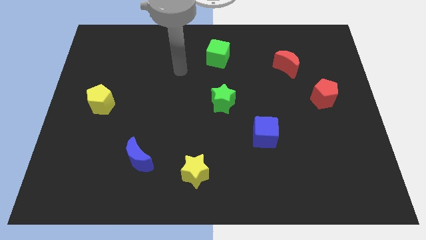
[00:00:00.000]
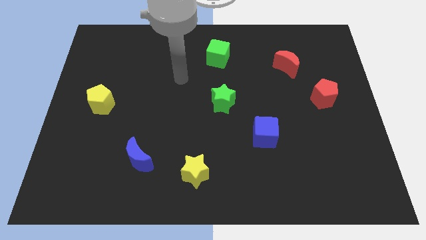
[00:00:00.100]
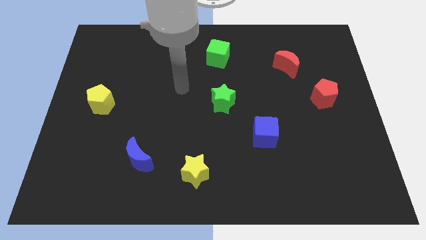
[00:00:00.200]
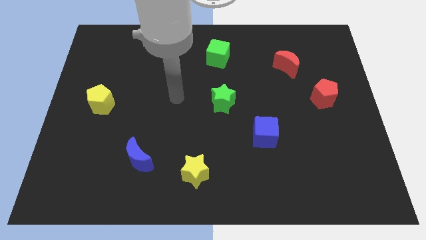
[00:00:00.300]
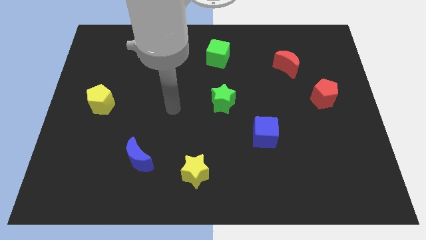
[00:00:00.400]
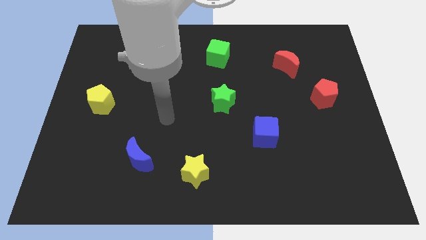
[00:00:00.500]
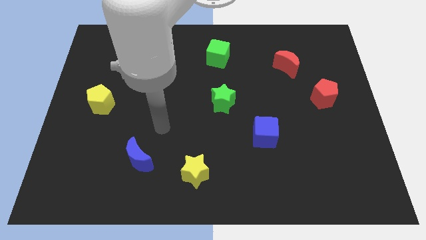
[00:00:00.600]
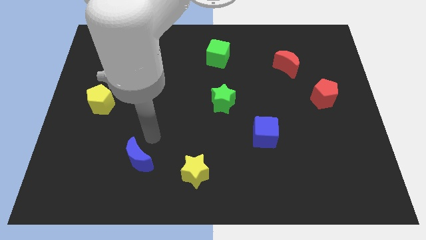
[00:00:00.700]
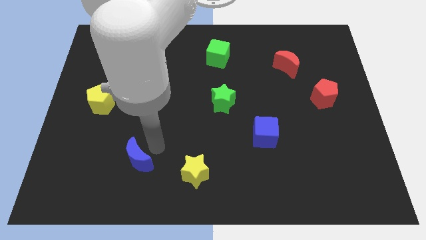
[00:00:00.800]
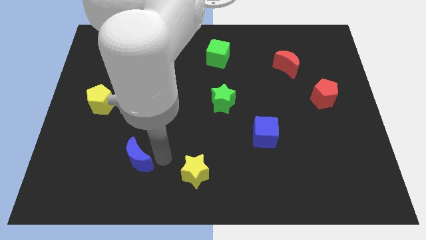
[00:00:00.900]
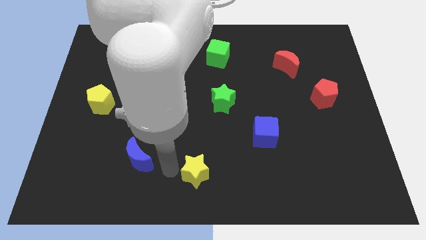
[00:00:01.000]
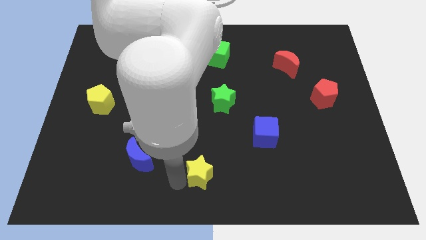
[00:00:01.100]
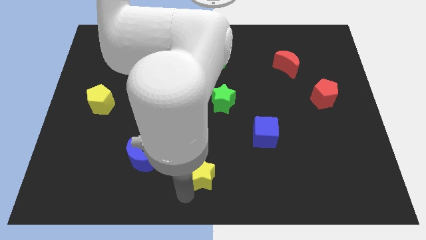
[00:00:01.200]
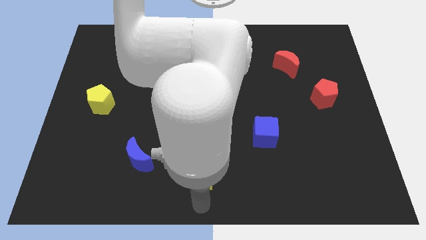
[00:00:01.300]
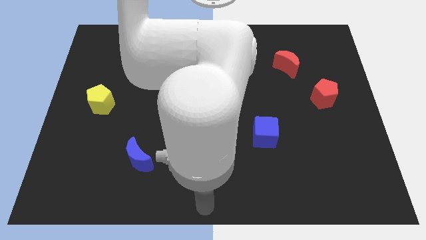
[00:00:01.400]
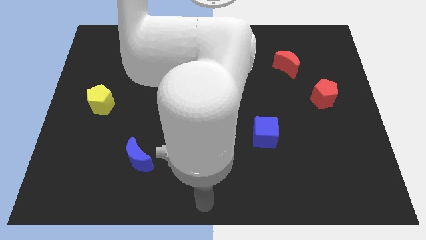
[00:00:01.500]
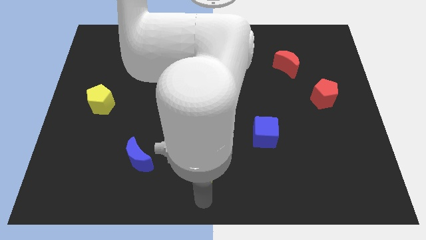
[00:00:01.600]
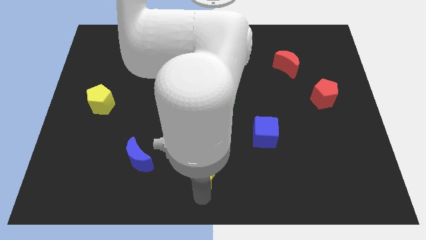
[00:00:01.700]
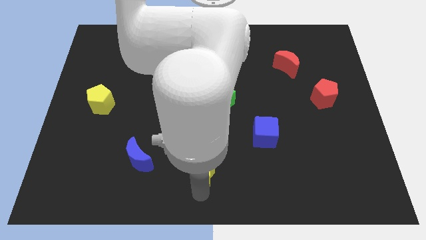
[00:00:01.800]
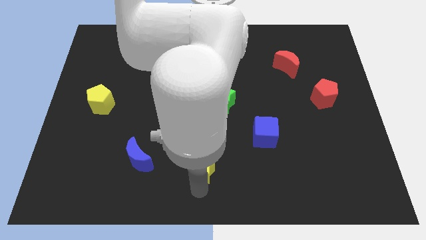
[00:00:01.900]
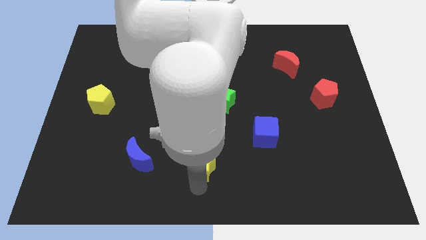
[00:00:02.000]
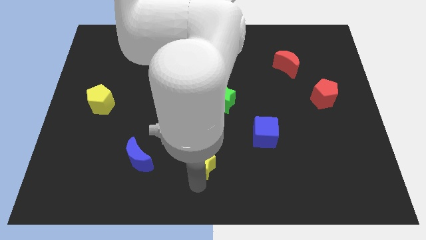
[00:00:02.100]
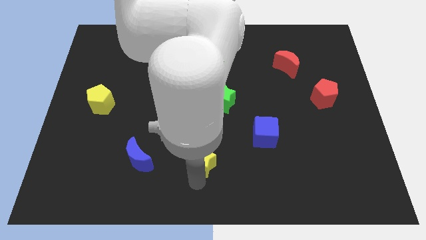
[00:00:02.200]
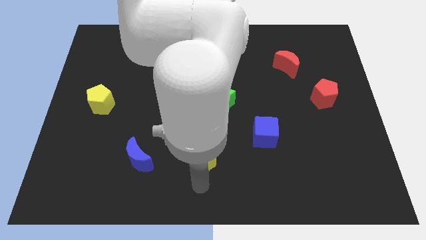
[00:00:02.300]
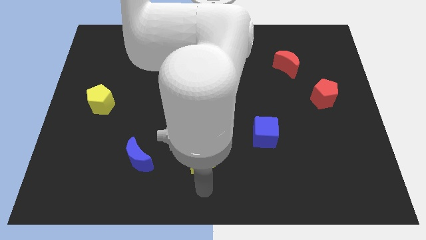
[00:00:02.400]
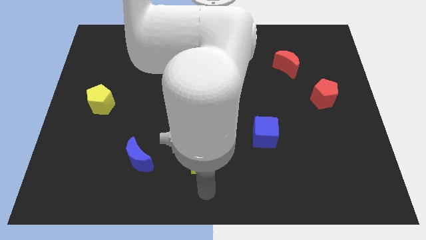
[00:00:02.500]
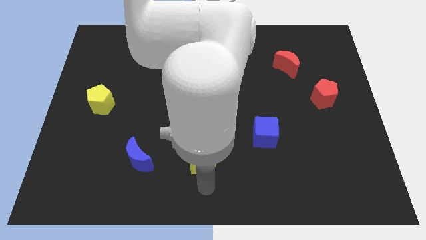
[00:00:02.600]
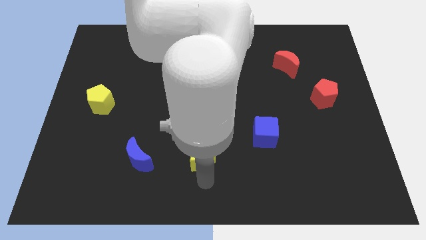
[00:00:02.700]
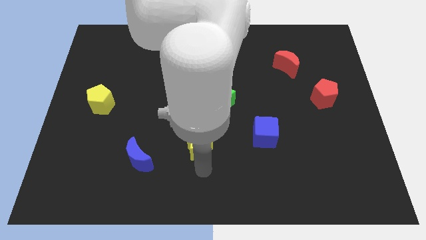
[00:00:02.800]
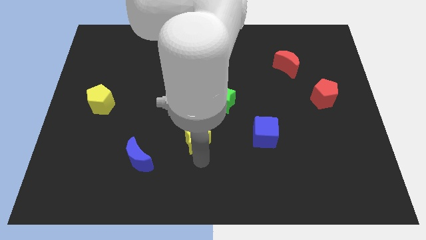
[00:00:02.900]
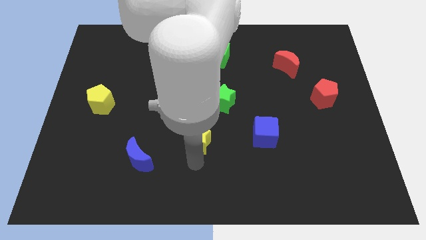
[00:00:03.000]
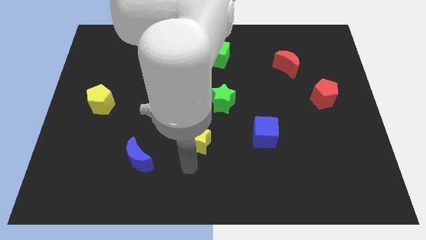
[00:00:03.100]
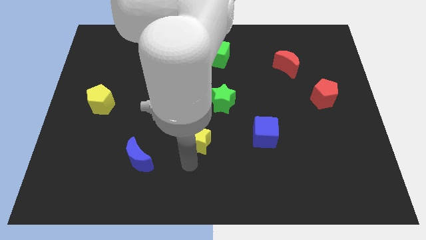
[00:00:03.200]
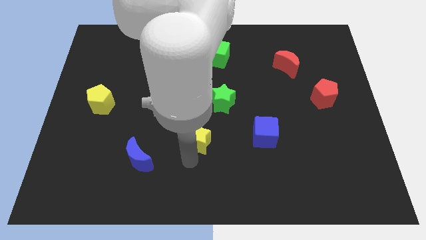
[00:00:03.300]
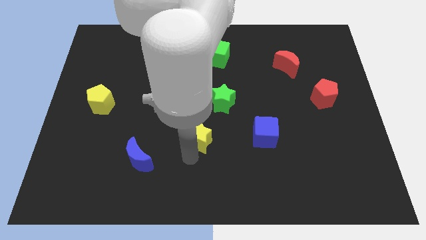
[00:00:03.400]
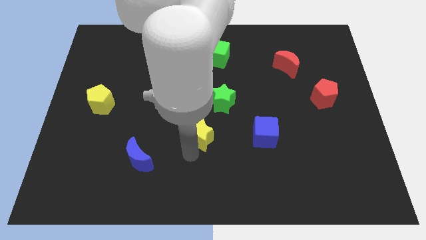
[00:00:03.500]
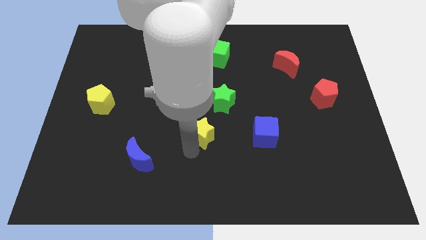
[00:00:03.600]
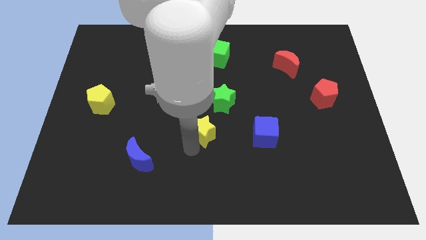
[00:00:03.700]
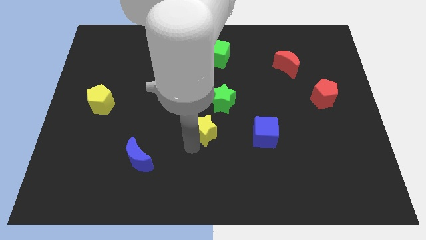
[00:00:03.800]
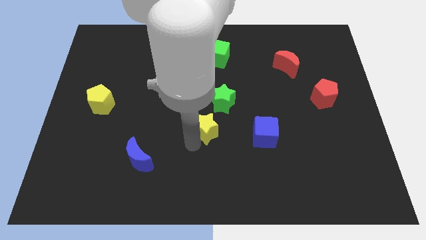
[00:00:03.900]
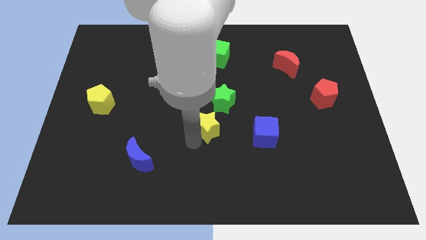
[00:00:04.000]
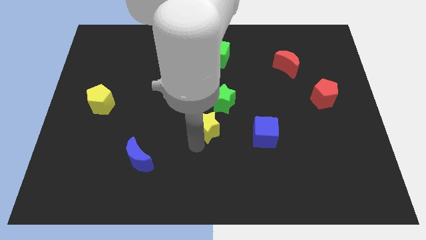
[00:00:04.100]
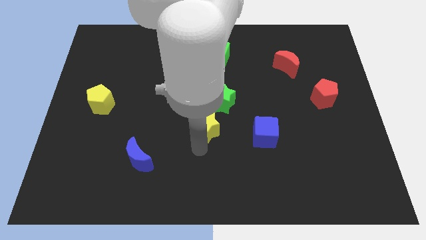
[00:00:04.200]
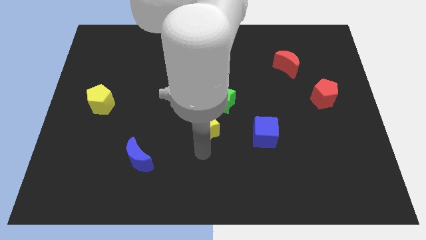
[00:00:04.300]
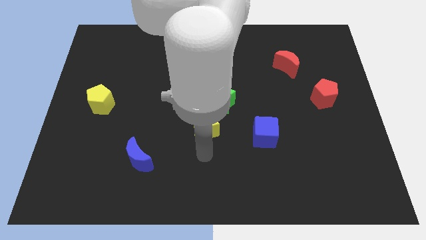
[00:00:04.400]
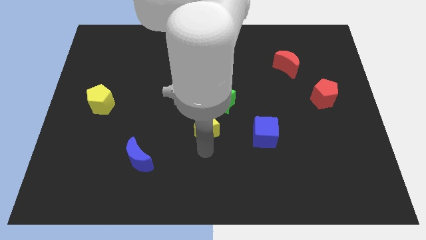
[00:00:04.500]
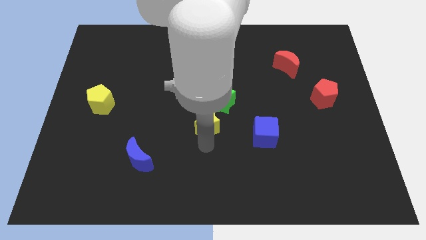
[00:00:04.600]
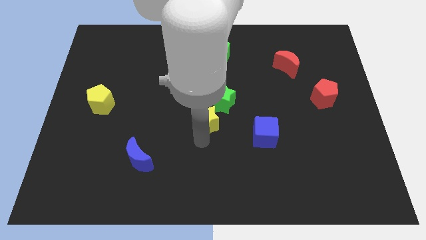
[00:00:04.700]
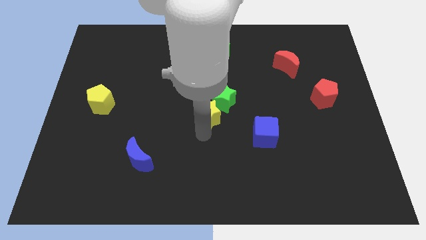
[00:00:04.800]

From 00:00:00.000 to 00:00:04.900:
move the yellow star to the green star

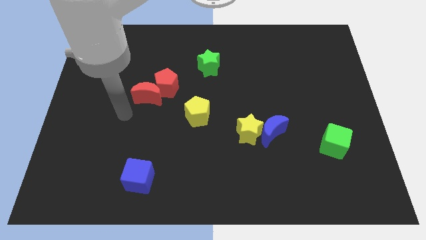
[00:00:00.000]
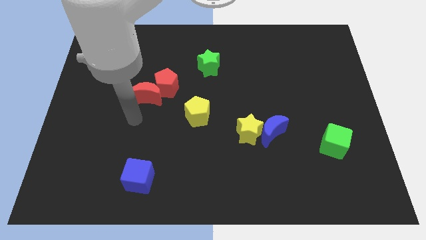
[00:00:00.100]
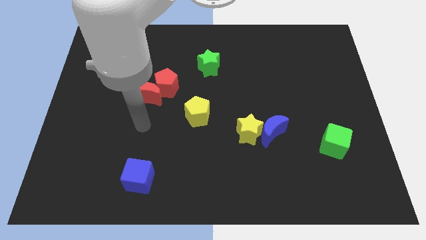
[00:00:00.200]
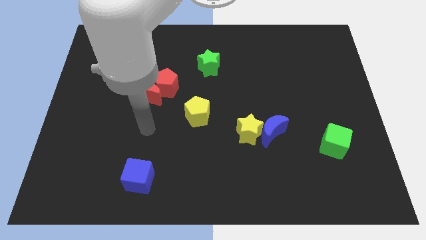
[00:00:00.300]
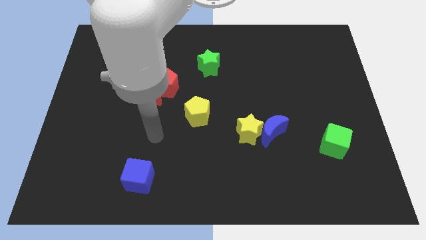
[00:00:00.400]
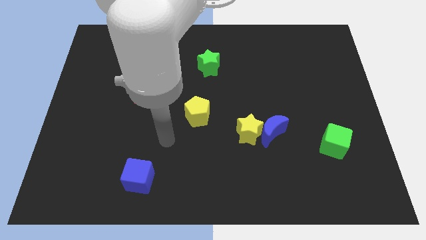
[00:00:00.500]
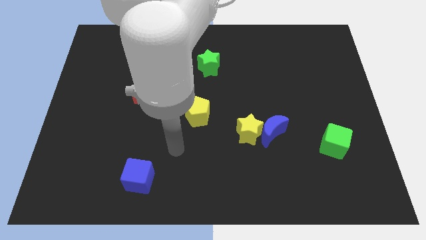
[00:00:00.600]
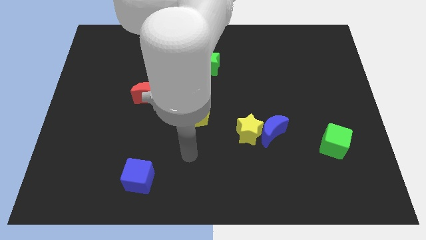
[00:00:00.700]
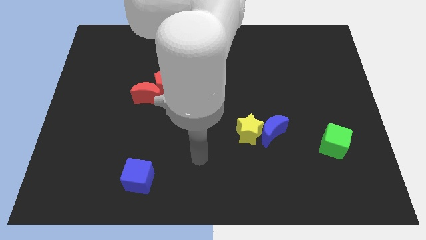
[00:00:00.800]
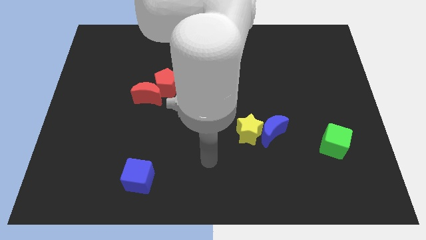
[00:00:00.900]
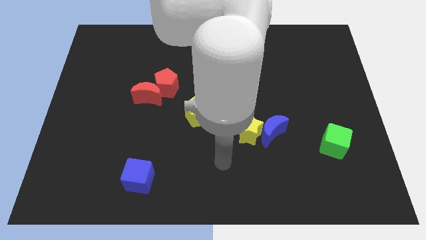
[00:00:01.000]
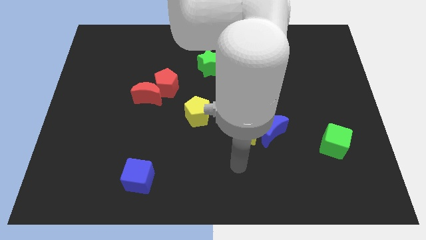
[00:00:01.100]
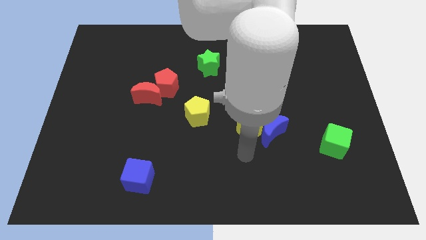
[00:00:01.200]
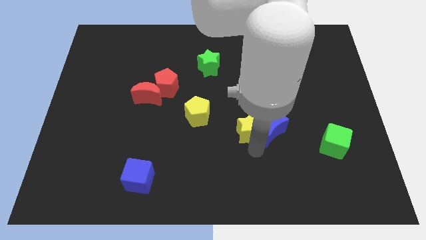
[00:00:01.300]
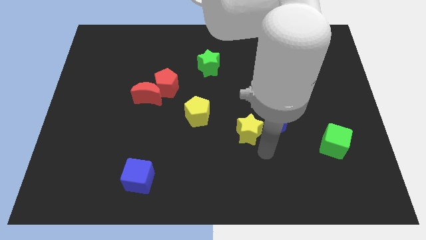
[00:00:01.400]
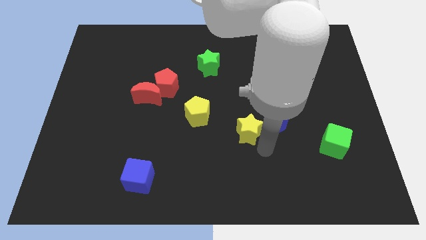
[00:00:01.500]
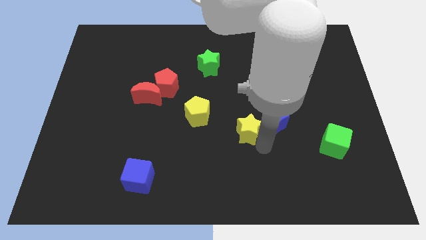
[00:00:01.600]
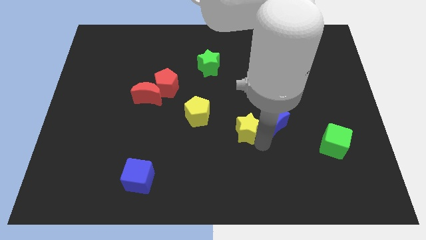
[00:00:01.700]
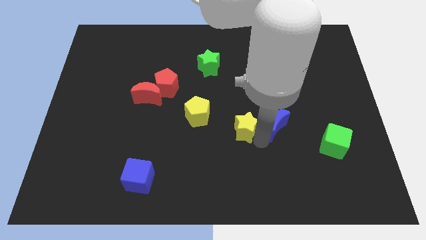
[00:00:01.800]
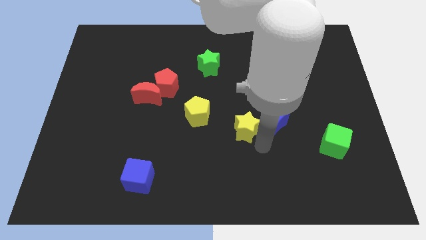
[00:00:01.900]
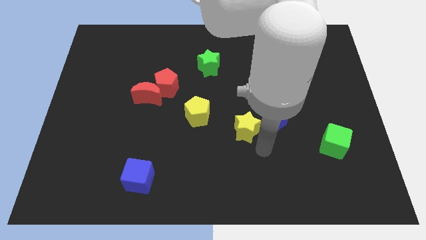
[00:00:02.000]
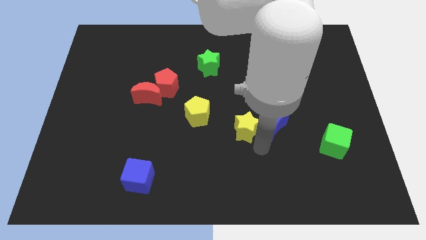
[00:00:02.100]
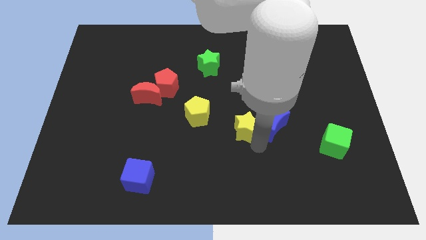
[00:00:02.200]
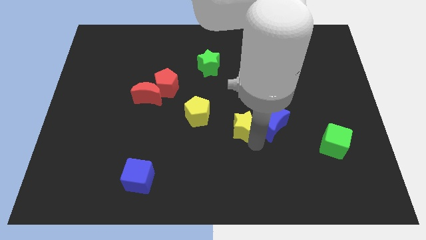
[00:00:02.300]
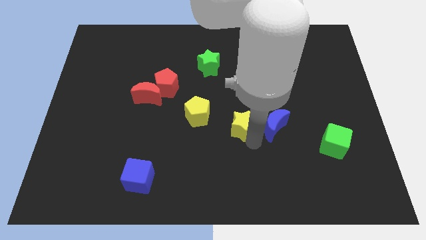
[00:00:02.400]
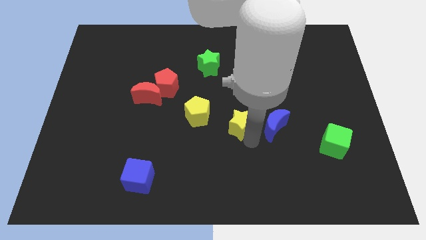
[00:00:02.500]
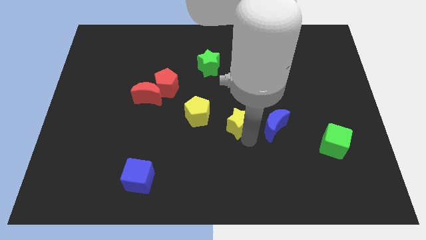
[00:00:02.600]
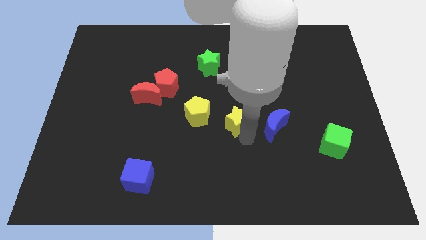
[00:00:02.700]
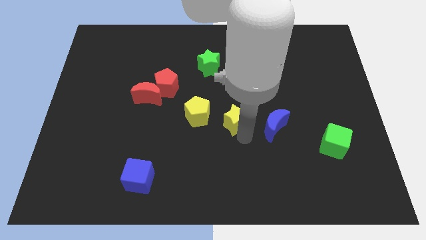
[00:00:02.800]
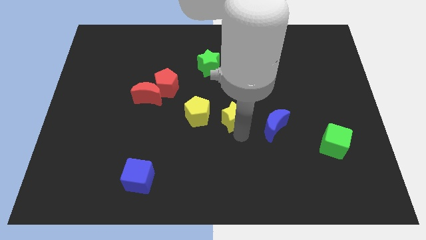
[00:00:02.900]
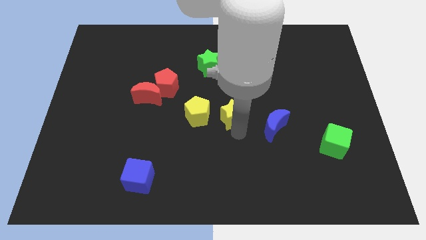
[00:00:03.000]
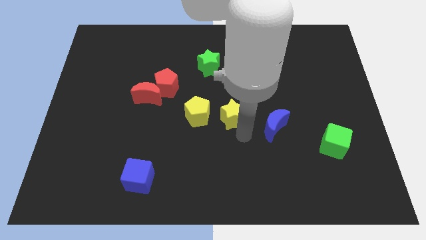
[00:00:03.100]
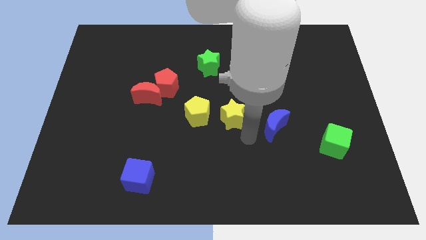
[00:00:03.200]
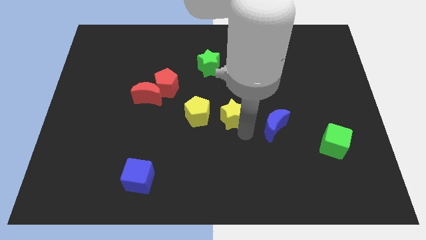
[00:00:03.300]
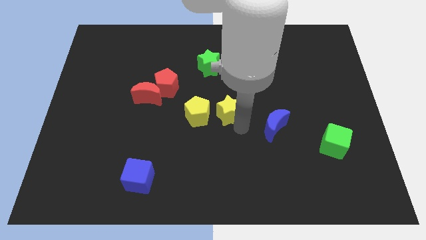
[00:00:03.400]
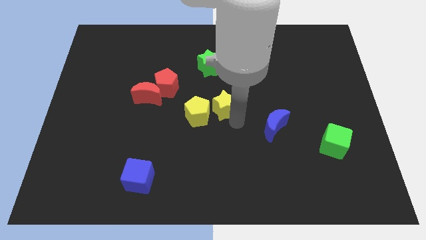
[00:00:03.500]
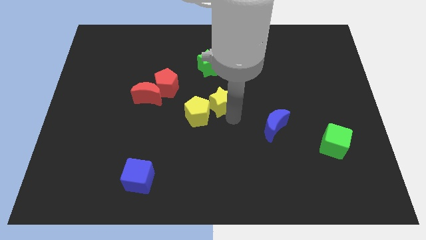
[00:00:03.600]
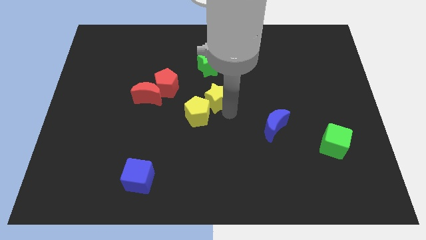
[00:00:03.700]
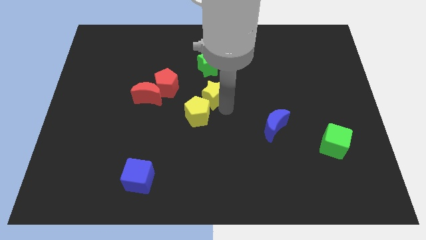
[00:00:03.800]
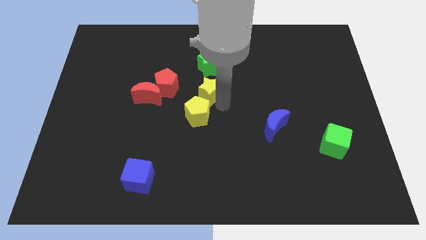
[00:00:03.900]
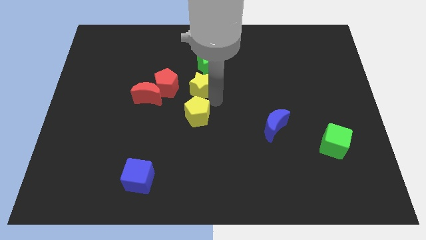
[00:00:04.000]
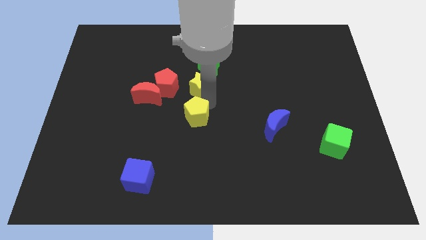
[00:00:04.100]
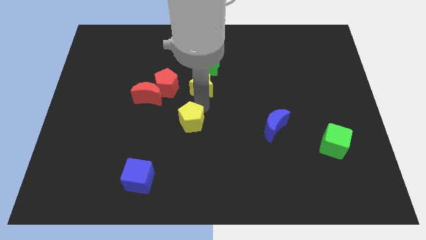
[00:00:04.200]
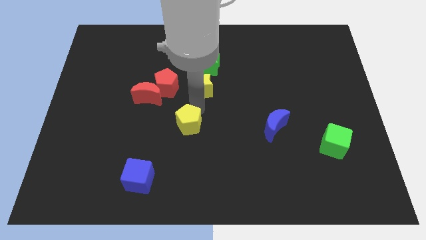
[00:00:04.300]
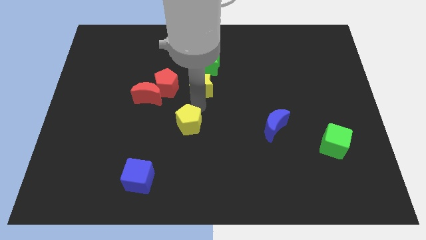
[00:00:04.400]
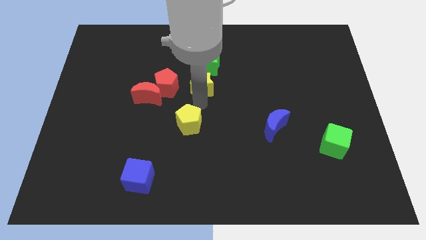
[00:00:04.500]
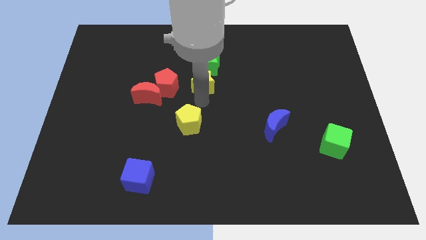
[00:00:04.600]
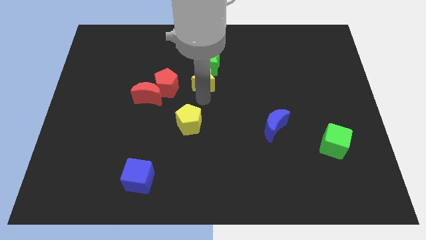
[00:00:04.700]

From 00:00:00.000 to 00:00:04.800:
slide the yellow star close to the green star
